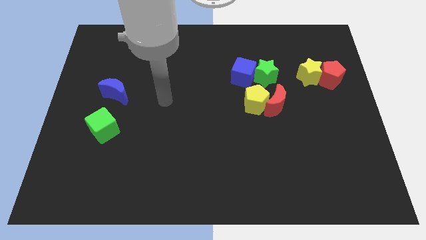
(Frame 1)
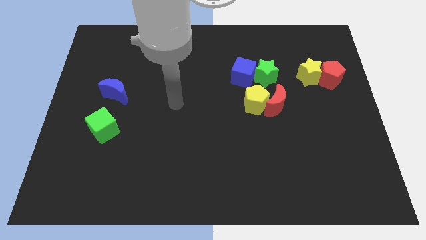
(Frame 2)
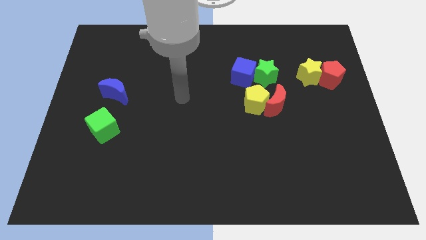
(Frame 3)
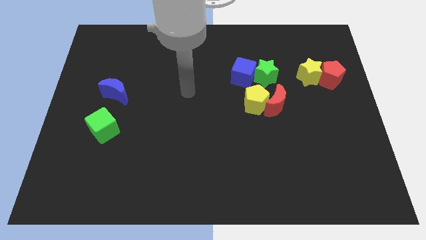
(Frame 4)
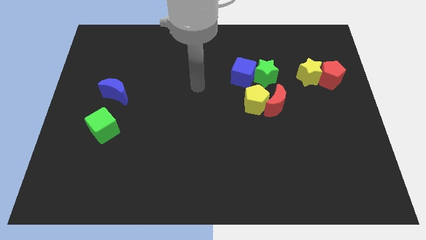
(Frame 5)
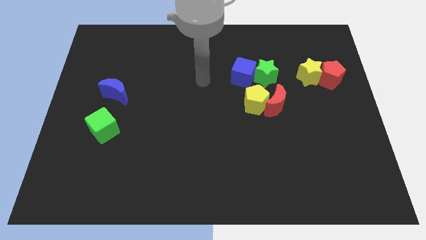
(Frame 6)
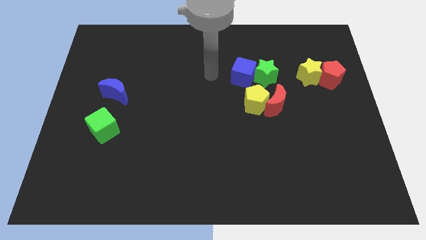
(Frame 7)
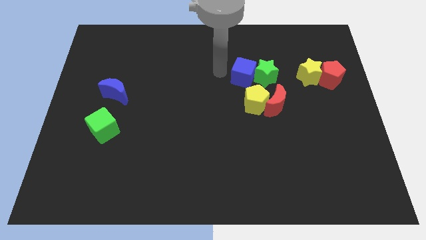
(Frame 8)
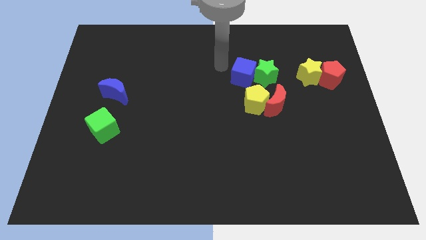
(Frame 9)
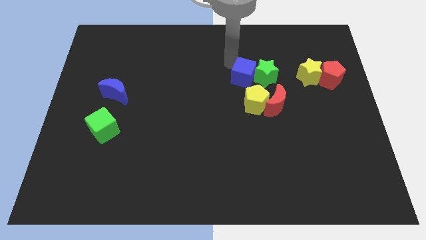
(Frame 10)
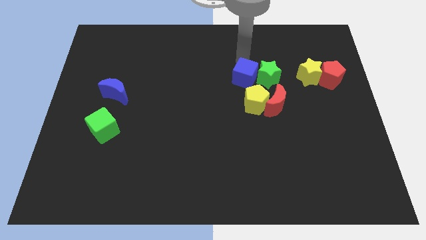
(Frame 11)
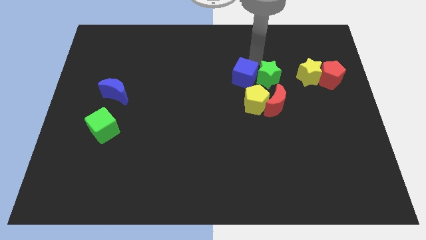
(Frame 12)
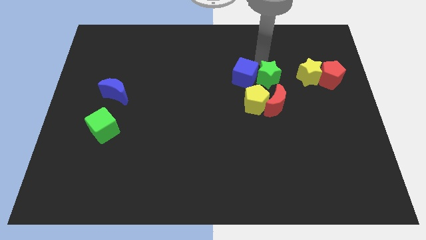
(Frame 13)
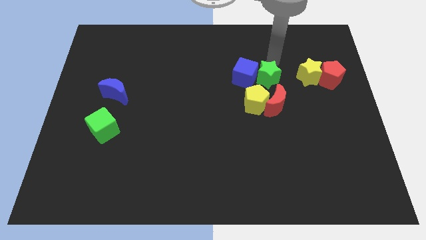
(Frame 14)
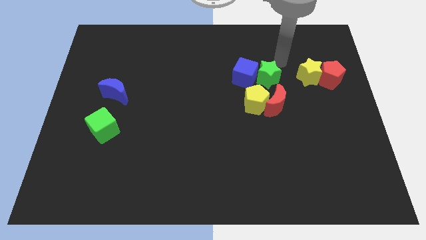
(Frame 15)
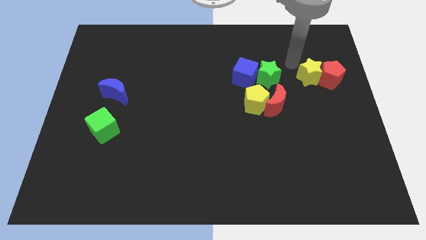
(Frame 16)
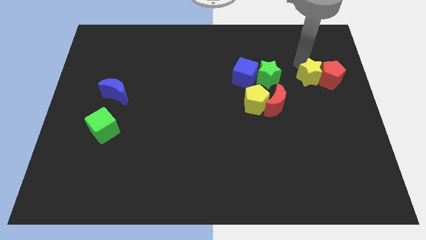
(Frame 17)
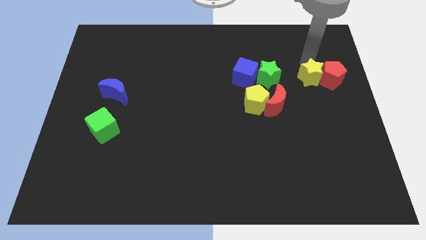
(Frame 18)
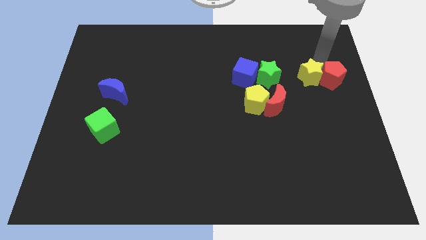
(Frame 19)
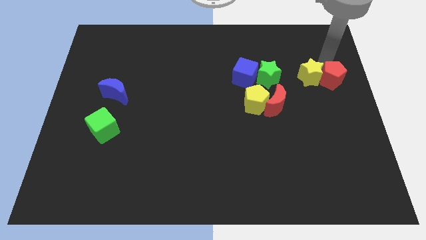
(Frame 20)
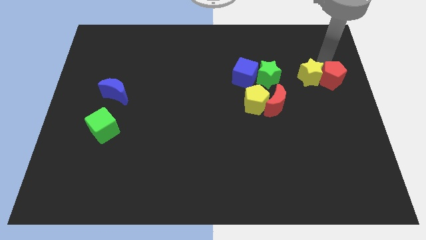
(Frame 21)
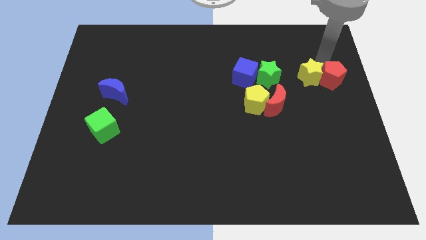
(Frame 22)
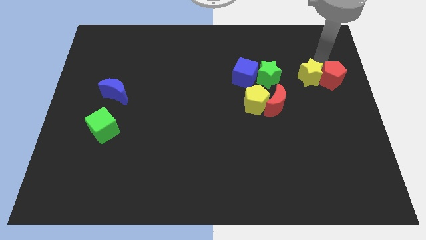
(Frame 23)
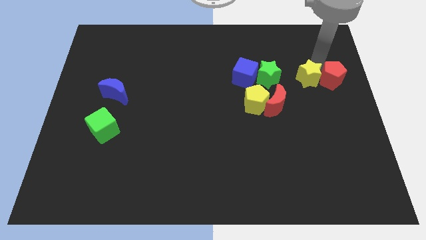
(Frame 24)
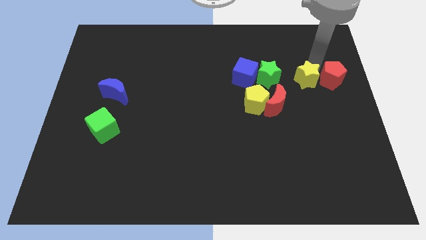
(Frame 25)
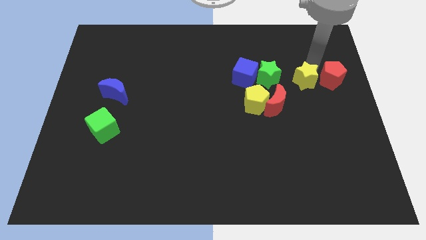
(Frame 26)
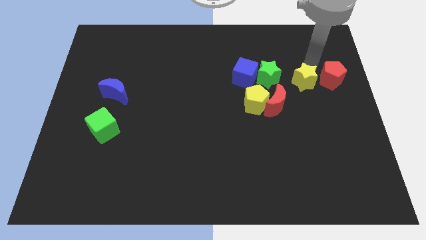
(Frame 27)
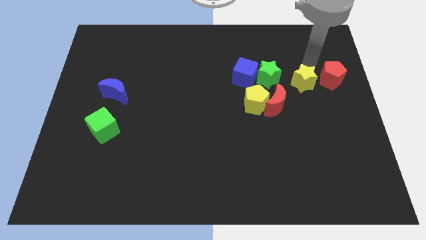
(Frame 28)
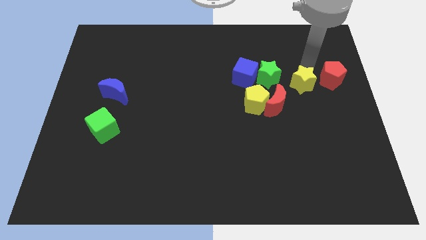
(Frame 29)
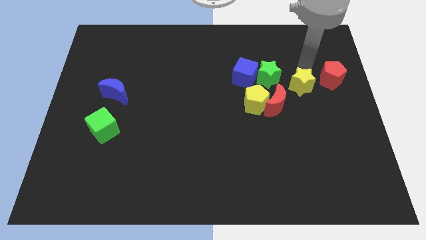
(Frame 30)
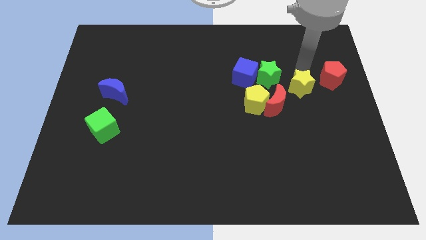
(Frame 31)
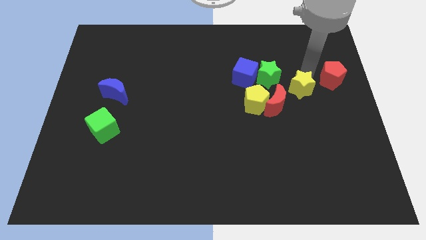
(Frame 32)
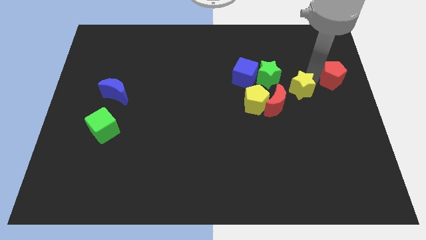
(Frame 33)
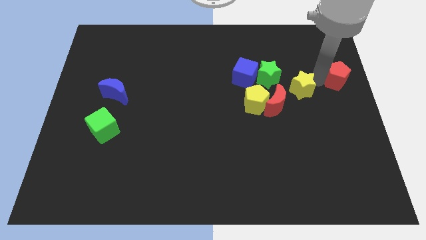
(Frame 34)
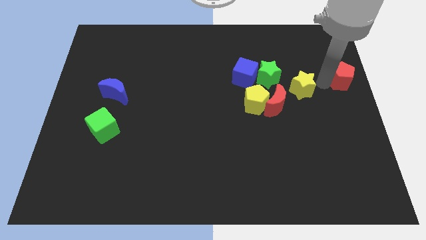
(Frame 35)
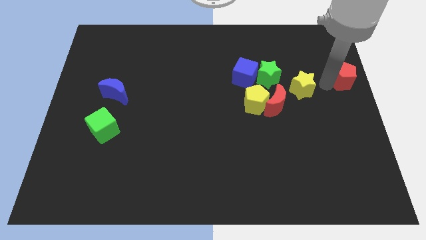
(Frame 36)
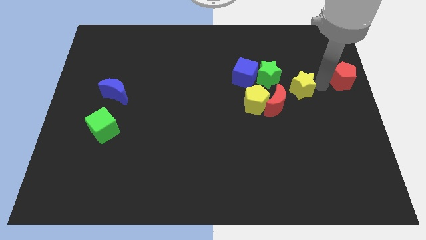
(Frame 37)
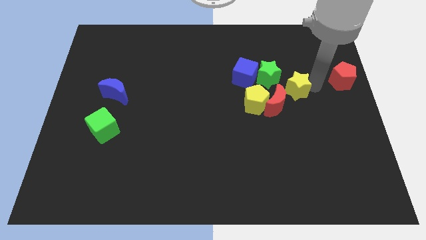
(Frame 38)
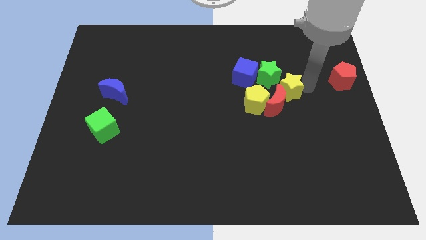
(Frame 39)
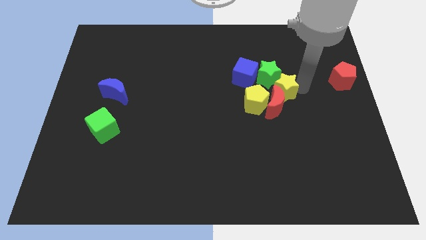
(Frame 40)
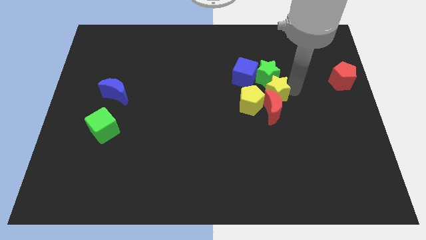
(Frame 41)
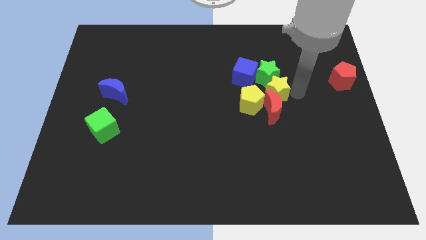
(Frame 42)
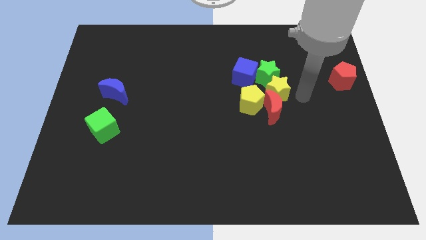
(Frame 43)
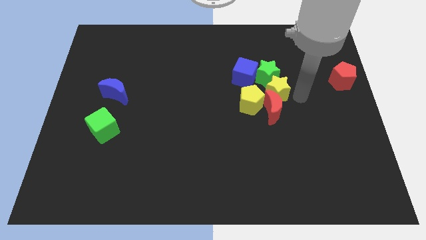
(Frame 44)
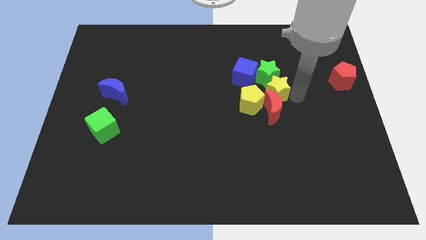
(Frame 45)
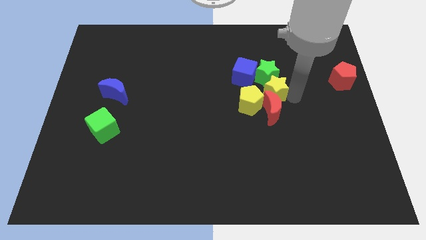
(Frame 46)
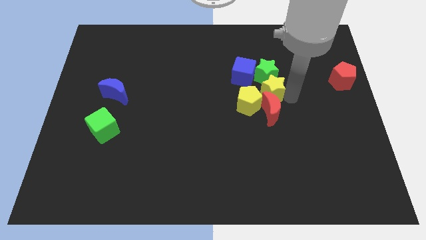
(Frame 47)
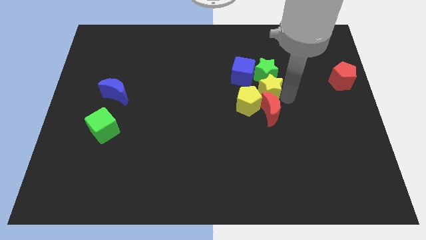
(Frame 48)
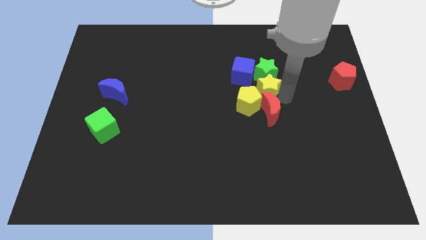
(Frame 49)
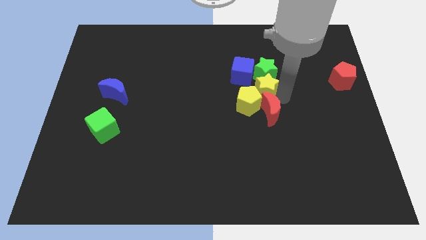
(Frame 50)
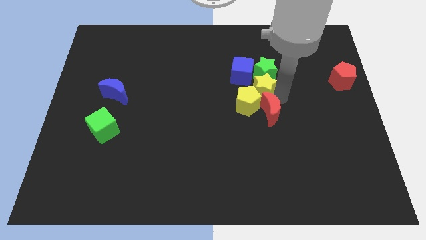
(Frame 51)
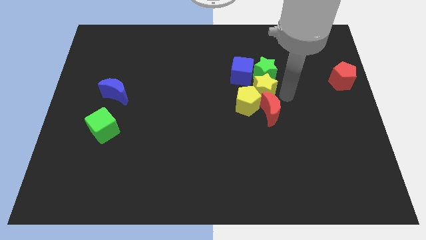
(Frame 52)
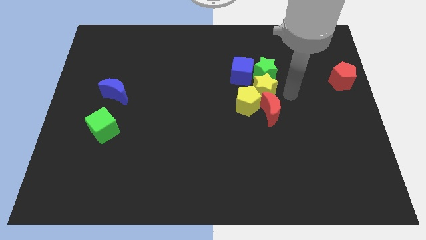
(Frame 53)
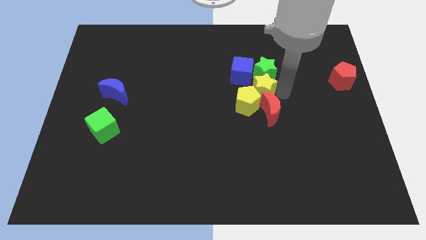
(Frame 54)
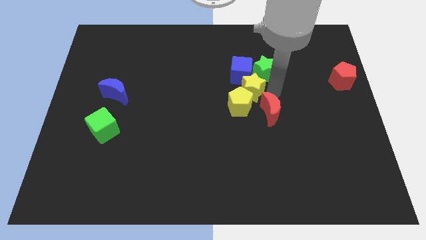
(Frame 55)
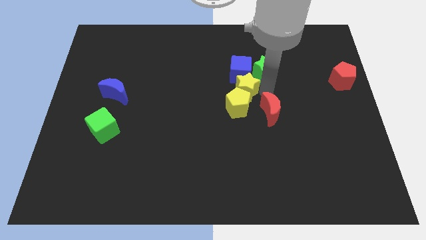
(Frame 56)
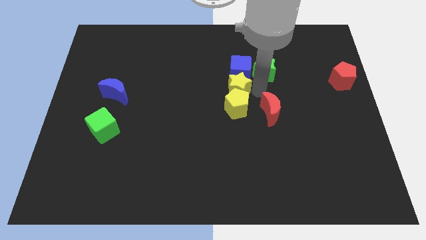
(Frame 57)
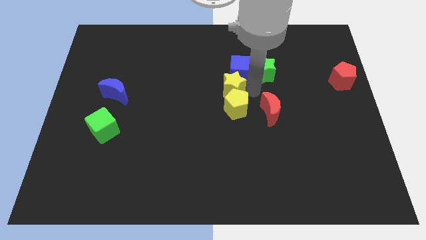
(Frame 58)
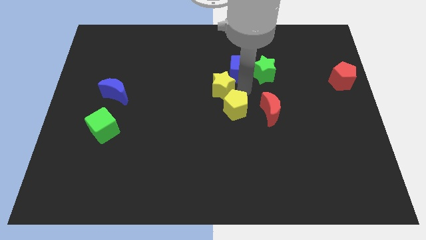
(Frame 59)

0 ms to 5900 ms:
push the yellow star left

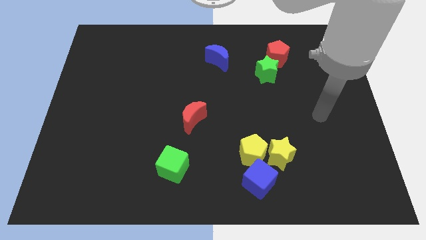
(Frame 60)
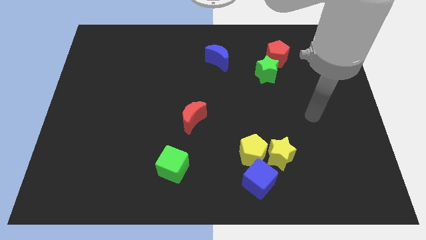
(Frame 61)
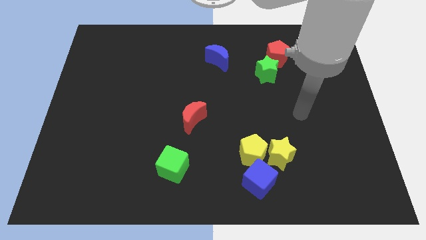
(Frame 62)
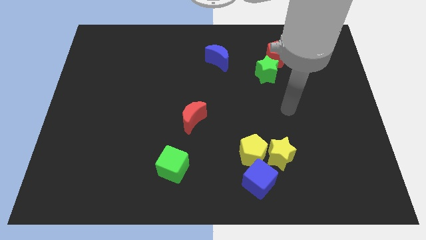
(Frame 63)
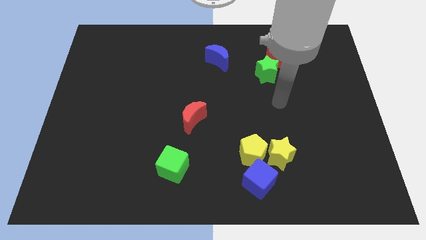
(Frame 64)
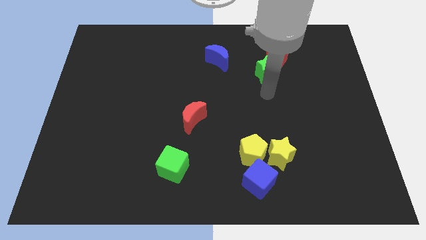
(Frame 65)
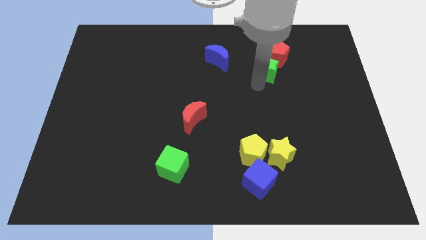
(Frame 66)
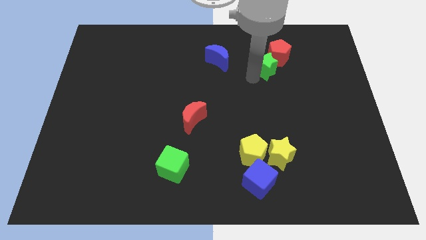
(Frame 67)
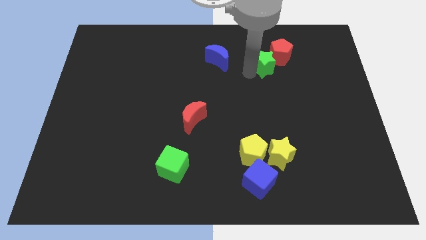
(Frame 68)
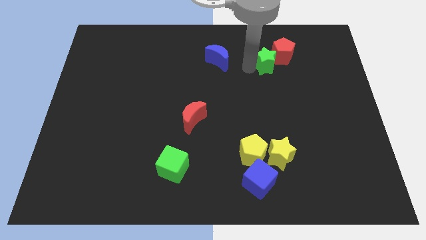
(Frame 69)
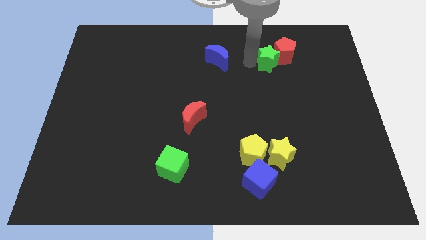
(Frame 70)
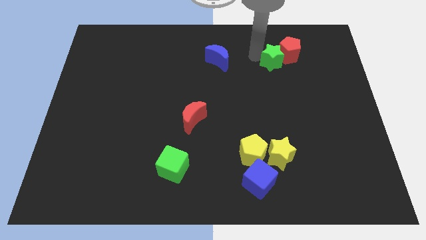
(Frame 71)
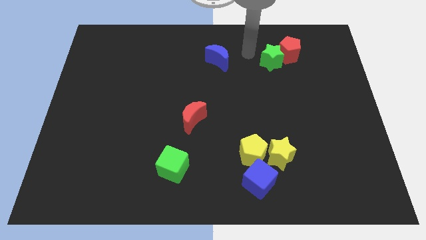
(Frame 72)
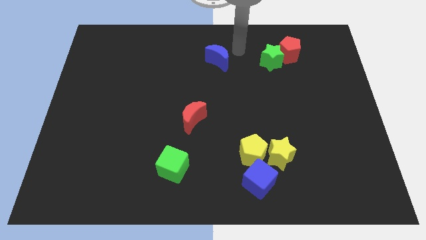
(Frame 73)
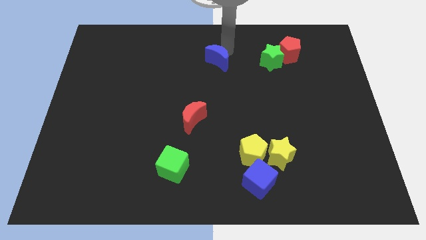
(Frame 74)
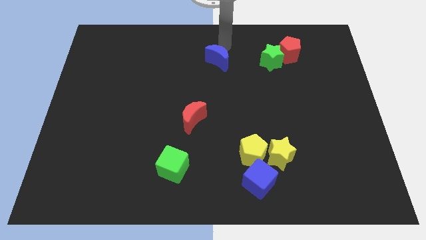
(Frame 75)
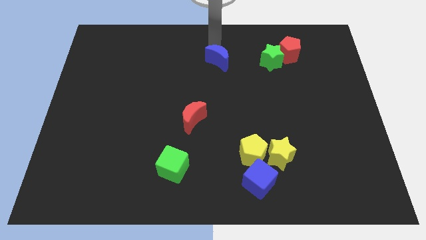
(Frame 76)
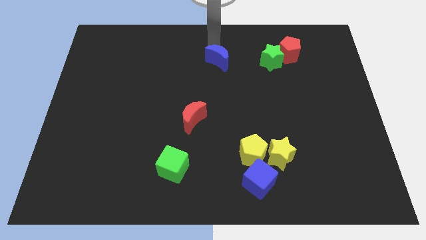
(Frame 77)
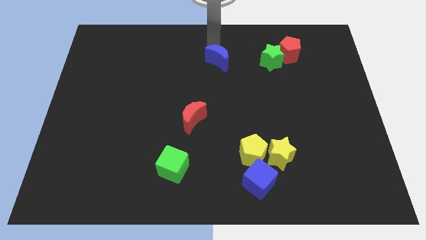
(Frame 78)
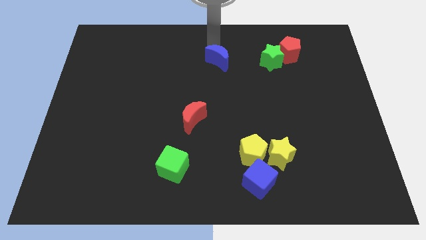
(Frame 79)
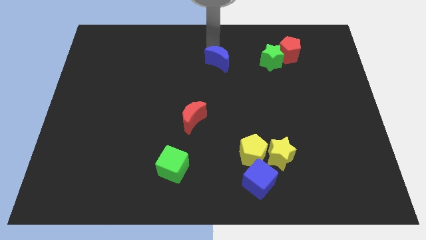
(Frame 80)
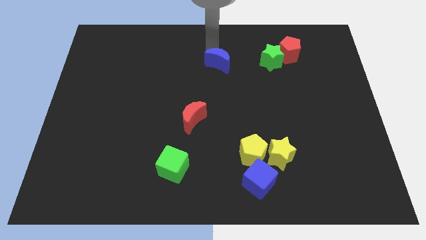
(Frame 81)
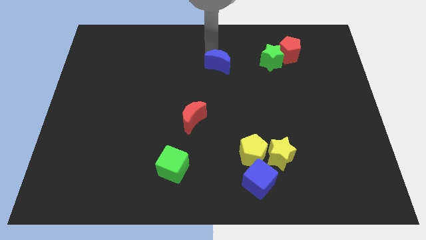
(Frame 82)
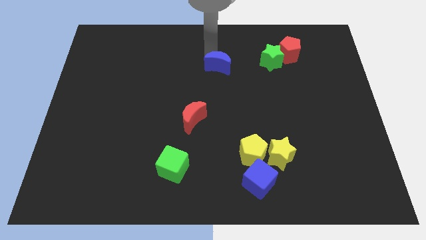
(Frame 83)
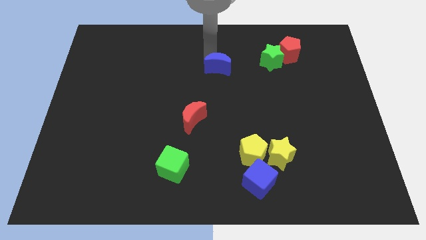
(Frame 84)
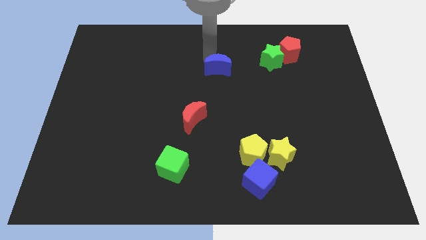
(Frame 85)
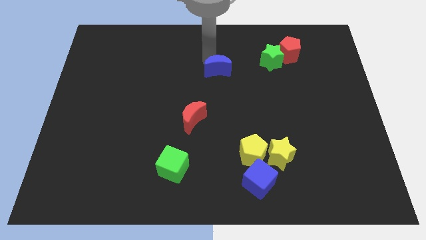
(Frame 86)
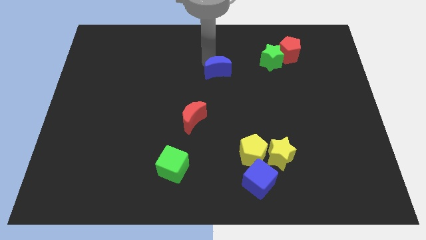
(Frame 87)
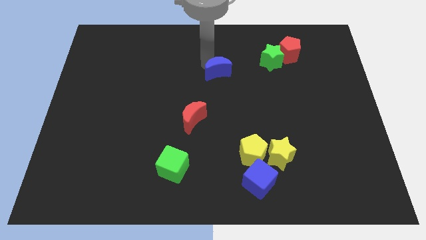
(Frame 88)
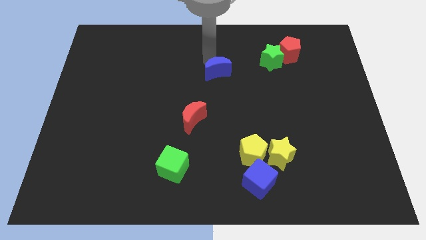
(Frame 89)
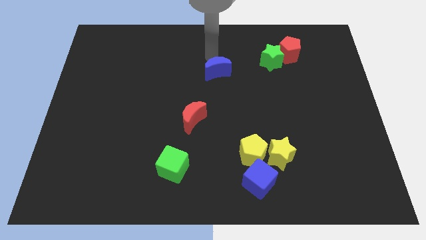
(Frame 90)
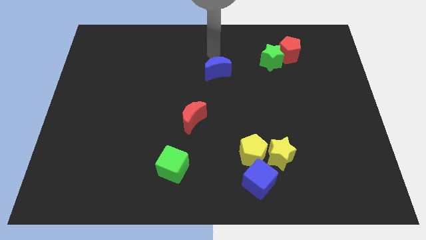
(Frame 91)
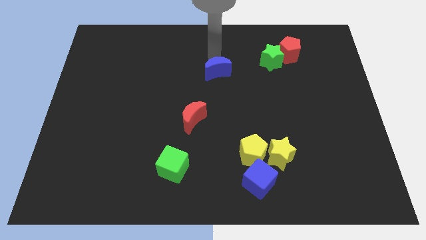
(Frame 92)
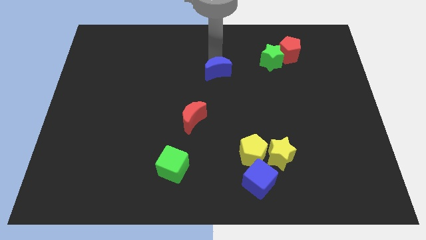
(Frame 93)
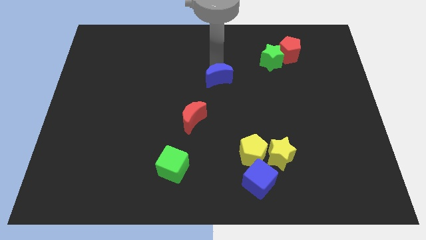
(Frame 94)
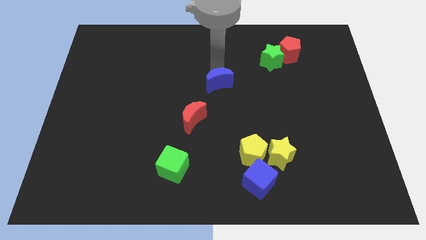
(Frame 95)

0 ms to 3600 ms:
slide the blue moon slightly down
